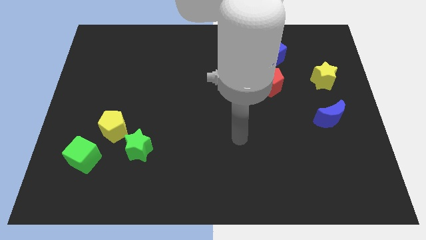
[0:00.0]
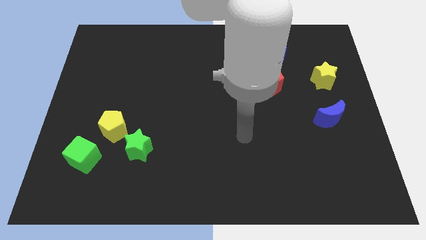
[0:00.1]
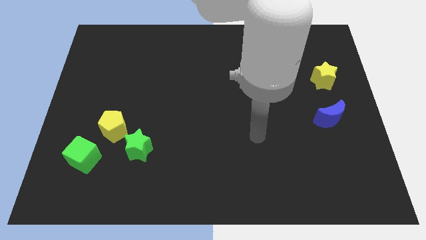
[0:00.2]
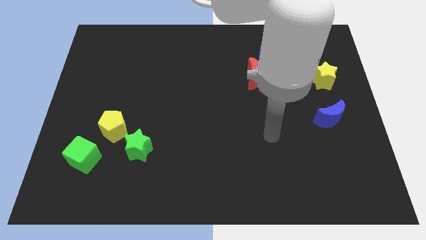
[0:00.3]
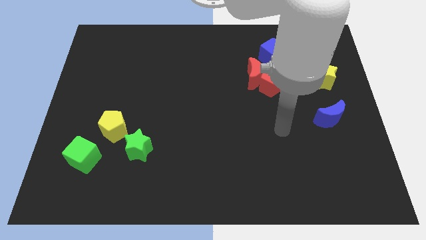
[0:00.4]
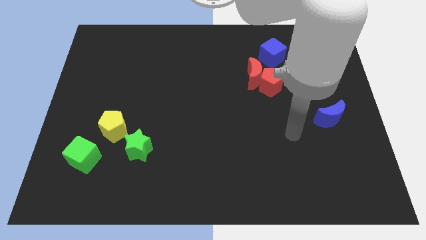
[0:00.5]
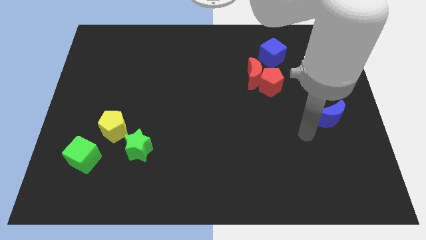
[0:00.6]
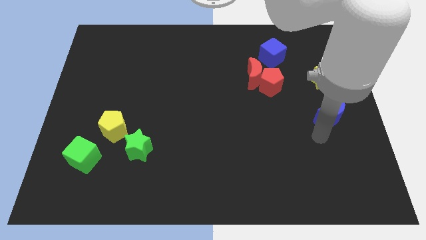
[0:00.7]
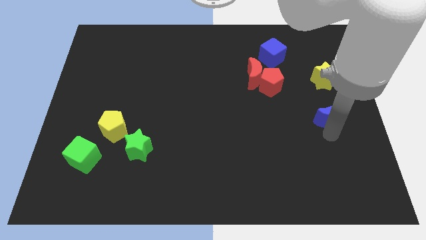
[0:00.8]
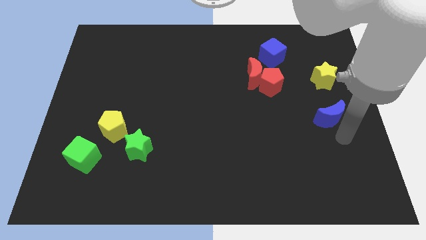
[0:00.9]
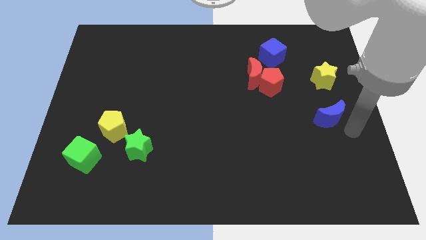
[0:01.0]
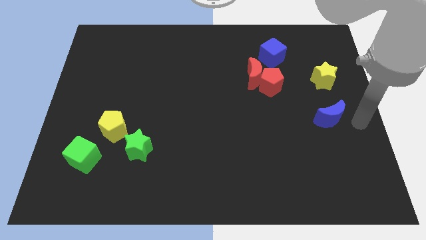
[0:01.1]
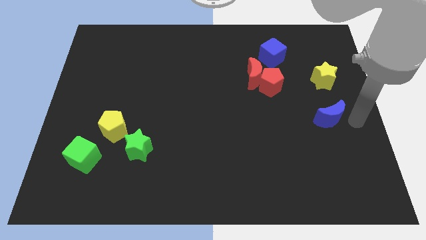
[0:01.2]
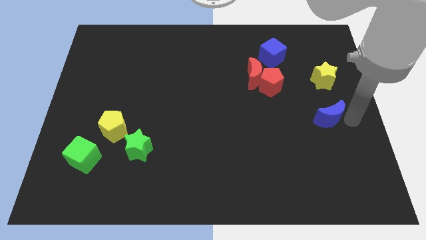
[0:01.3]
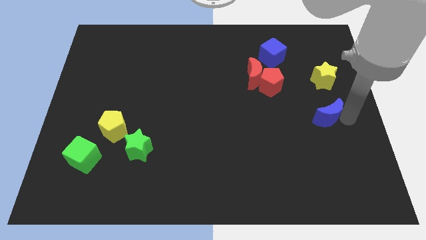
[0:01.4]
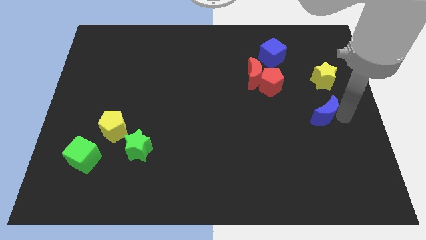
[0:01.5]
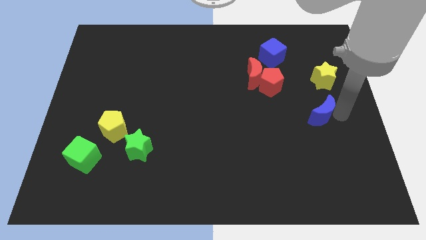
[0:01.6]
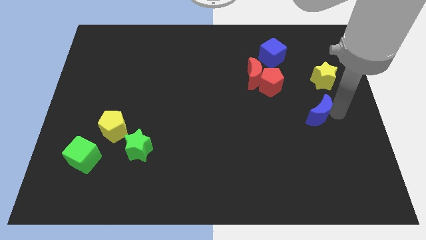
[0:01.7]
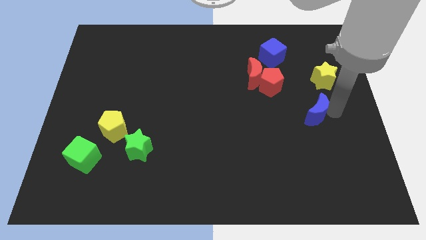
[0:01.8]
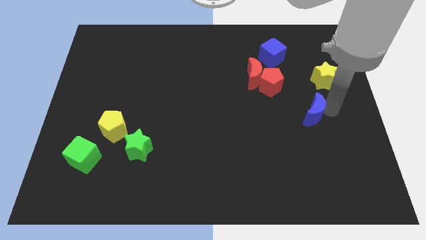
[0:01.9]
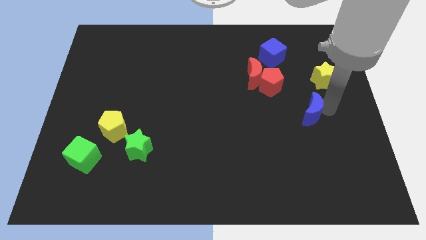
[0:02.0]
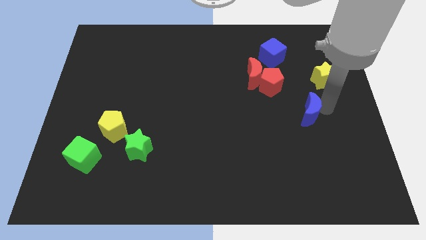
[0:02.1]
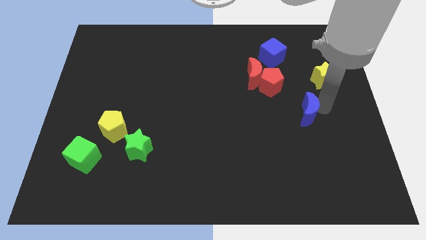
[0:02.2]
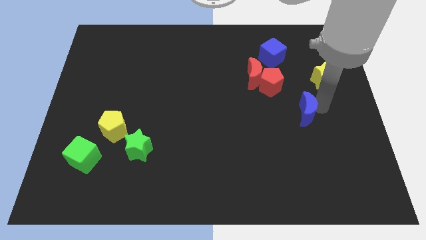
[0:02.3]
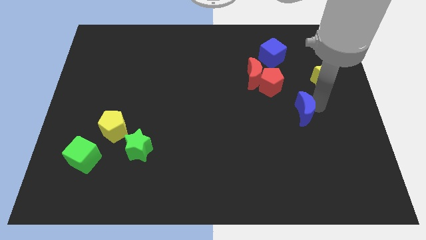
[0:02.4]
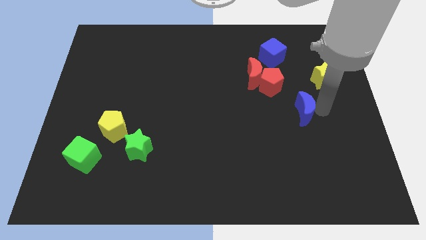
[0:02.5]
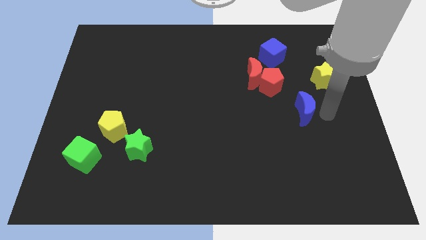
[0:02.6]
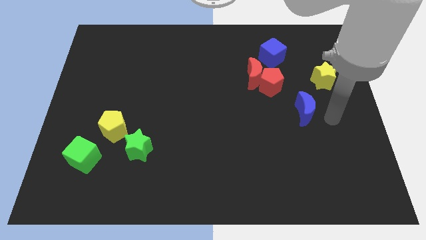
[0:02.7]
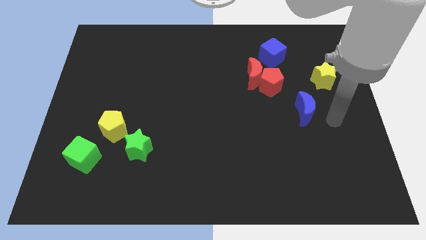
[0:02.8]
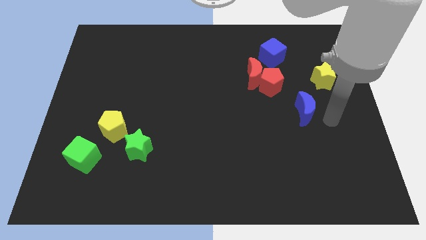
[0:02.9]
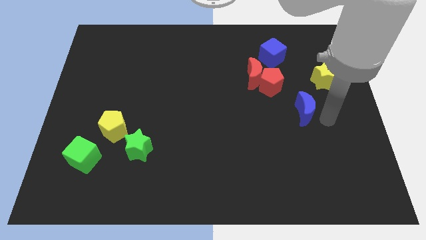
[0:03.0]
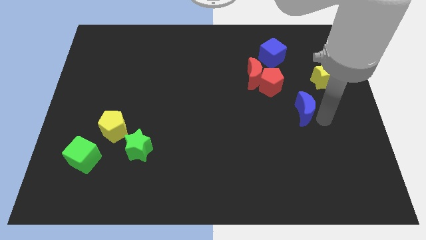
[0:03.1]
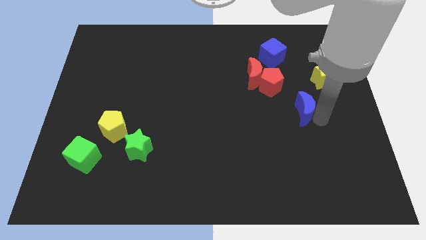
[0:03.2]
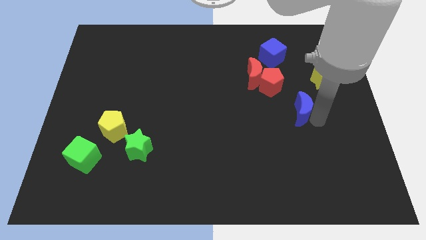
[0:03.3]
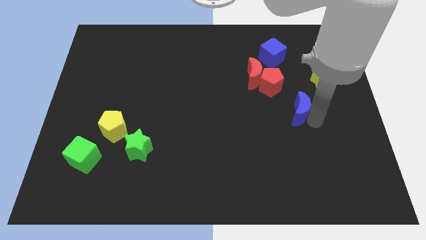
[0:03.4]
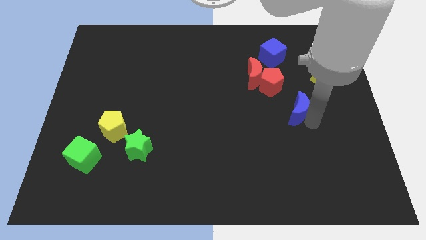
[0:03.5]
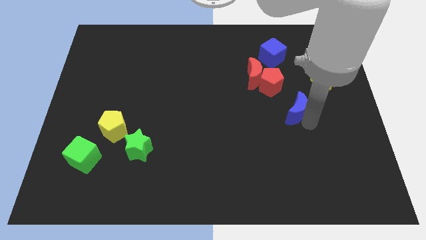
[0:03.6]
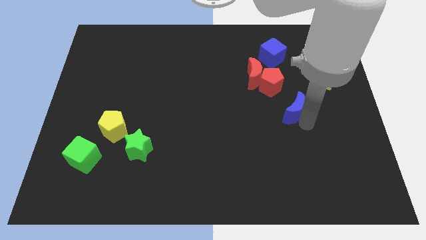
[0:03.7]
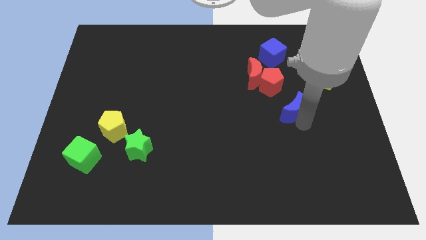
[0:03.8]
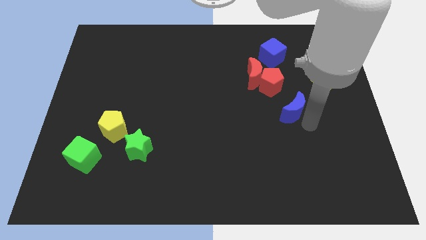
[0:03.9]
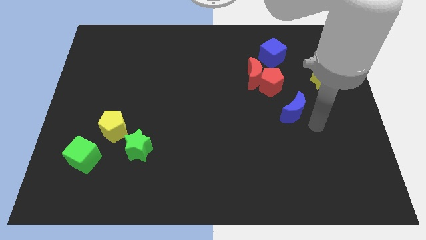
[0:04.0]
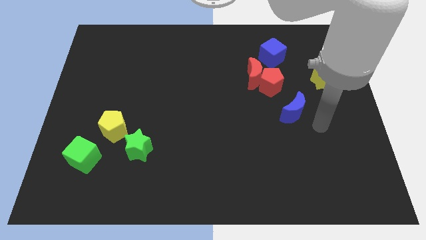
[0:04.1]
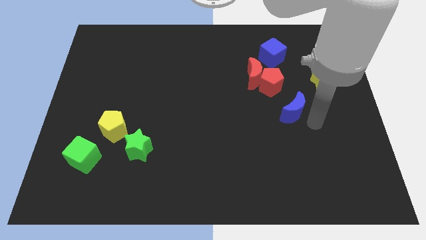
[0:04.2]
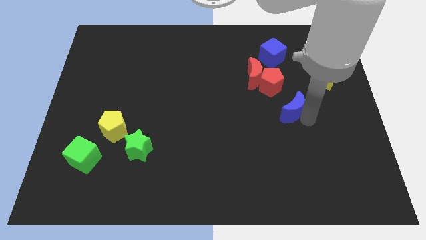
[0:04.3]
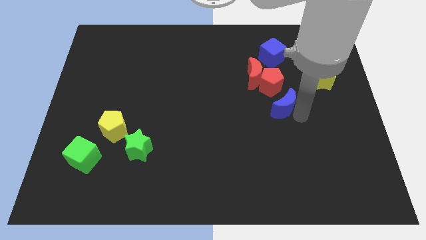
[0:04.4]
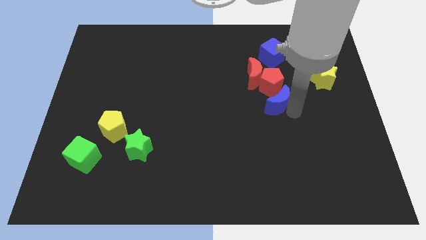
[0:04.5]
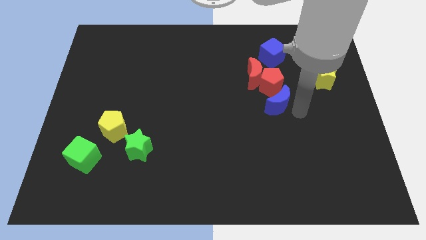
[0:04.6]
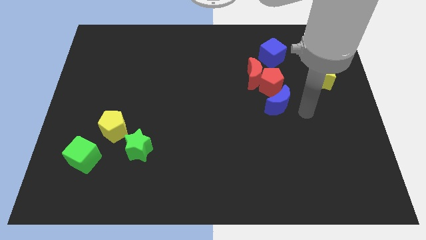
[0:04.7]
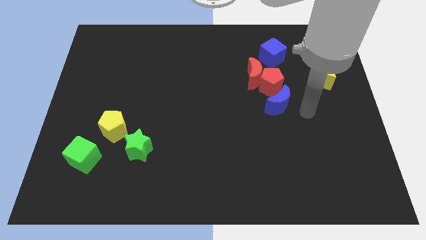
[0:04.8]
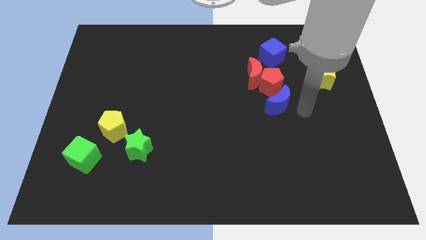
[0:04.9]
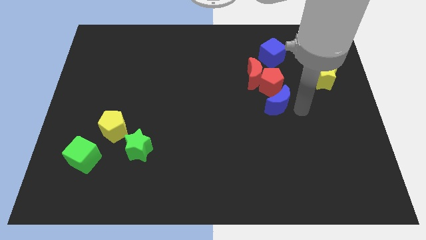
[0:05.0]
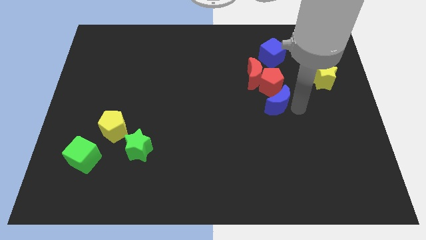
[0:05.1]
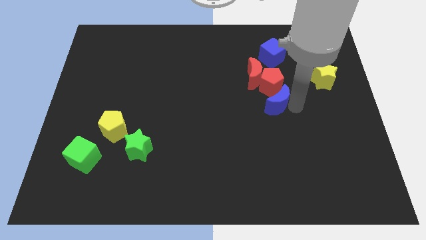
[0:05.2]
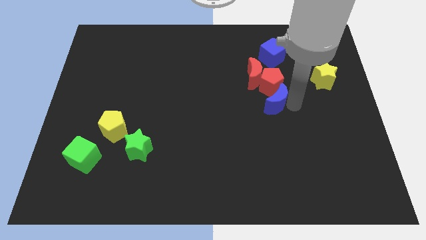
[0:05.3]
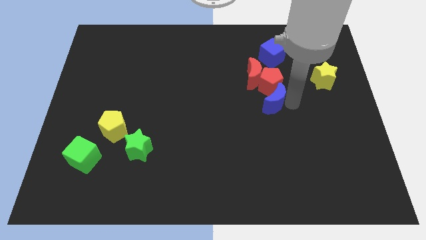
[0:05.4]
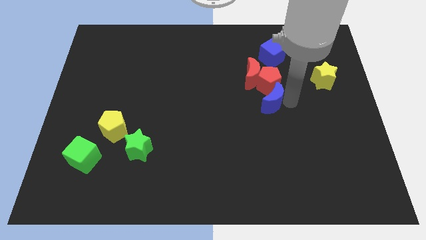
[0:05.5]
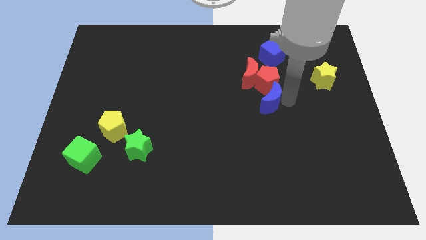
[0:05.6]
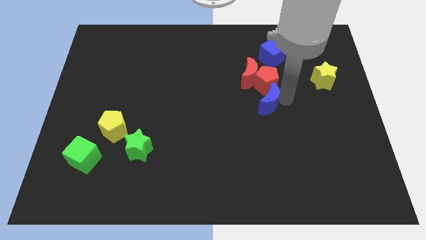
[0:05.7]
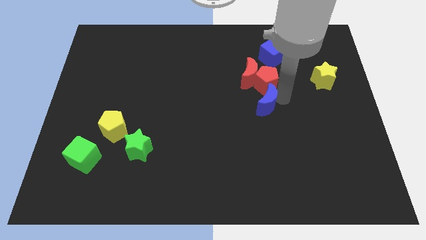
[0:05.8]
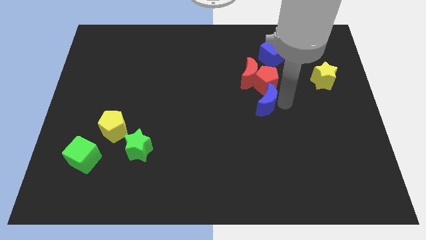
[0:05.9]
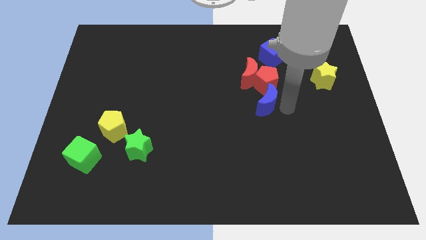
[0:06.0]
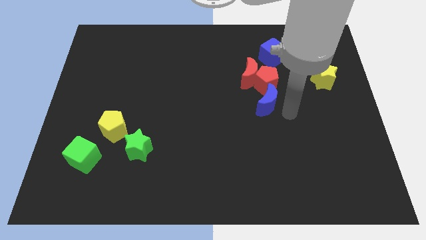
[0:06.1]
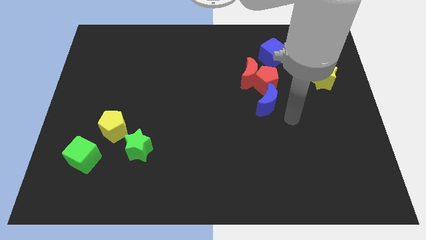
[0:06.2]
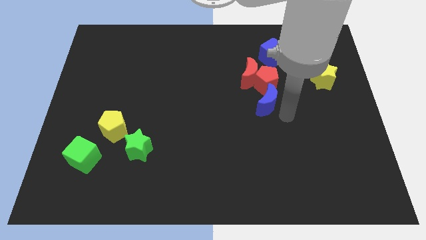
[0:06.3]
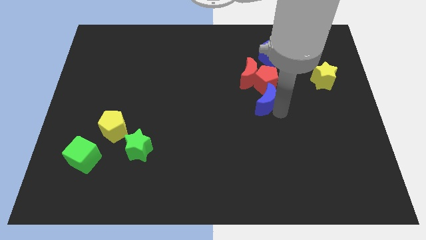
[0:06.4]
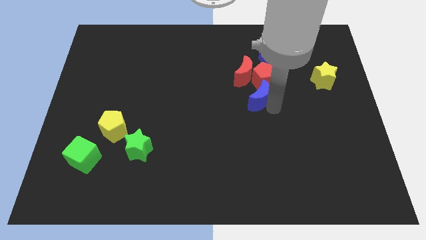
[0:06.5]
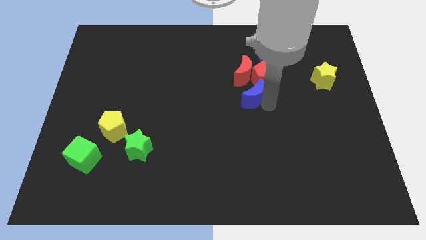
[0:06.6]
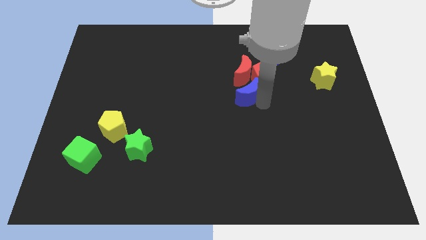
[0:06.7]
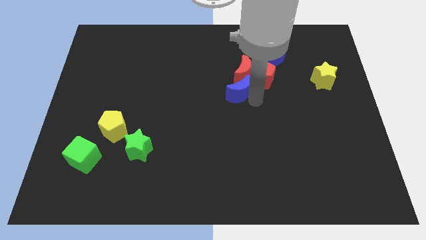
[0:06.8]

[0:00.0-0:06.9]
slide the blue moon left of the red pentagon
